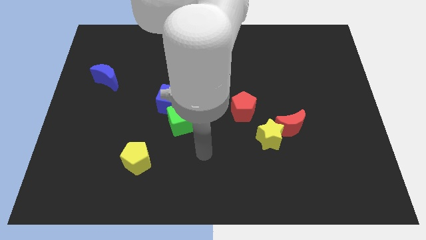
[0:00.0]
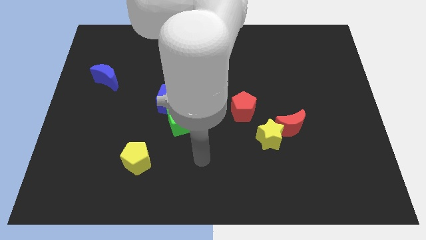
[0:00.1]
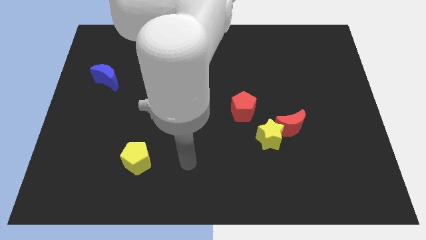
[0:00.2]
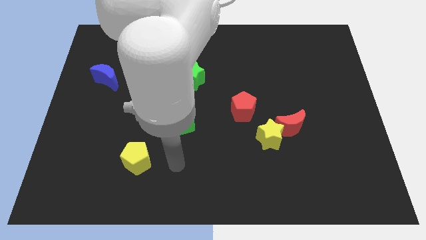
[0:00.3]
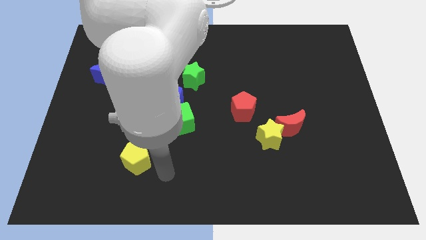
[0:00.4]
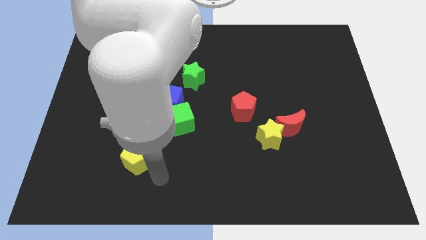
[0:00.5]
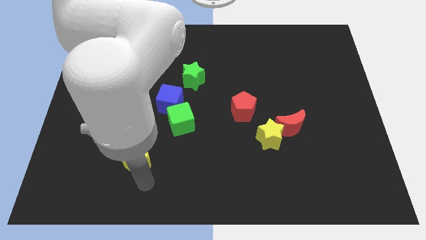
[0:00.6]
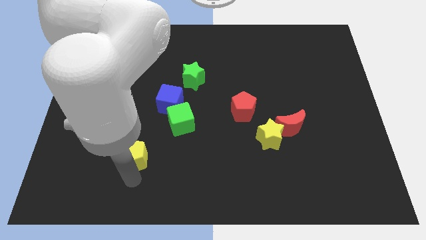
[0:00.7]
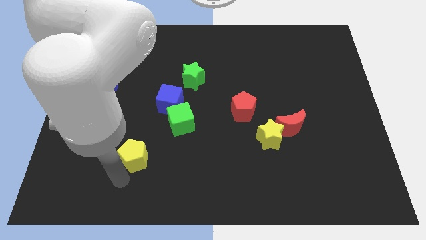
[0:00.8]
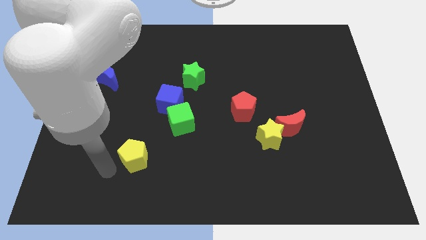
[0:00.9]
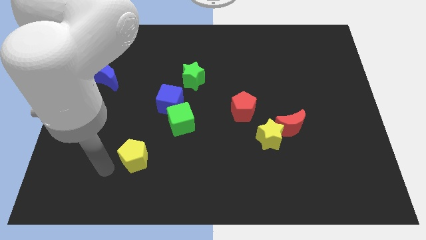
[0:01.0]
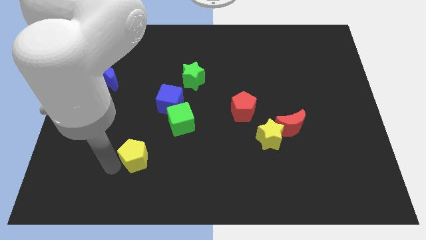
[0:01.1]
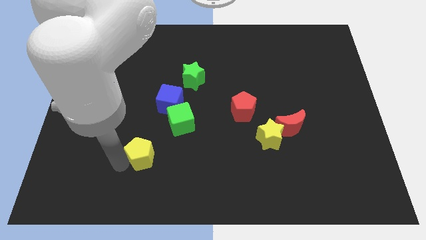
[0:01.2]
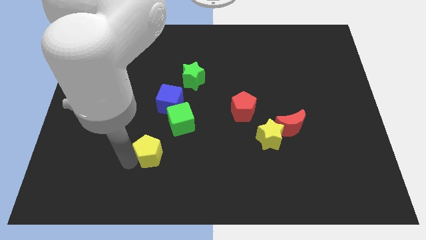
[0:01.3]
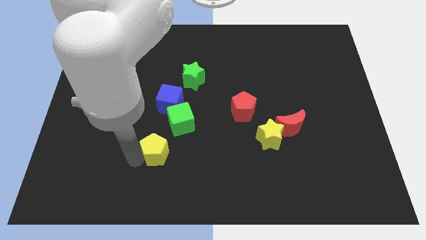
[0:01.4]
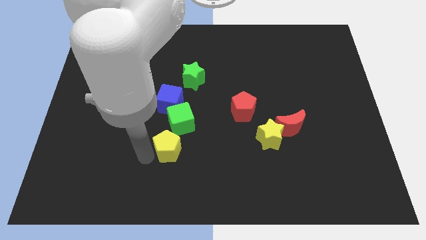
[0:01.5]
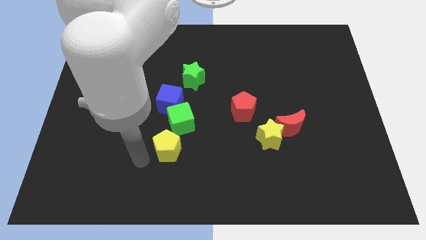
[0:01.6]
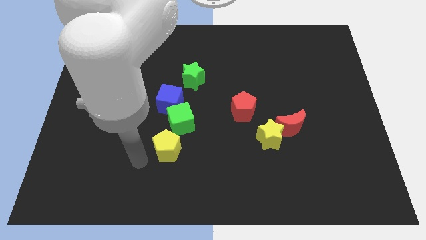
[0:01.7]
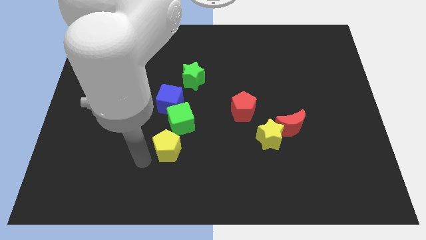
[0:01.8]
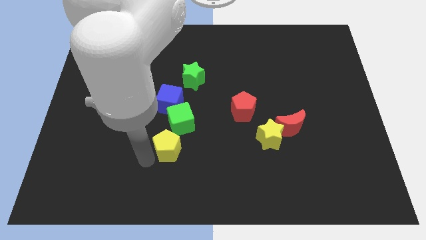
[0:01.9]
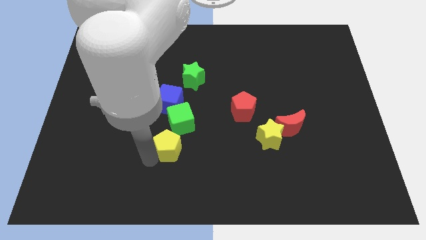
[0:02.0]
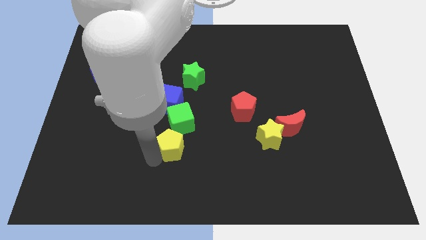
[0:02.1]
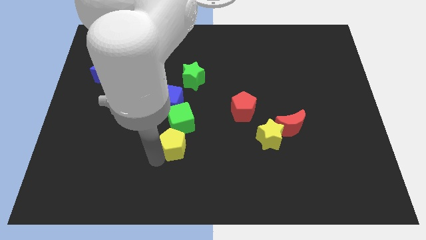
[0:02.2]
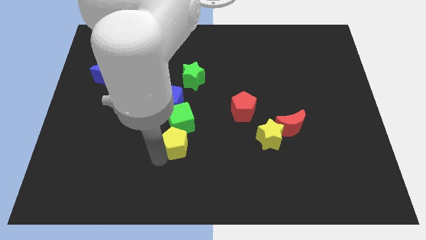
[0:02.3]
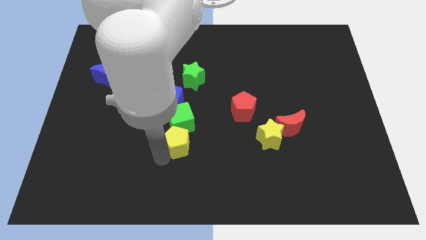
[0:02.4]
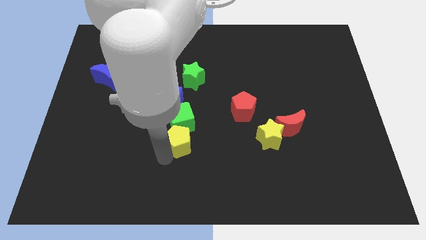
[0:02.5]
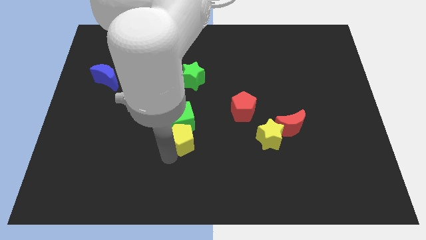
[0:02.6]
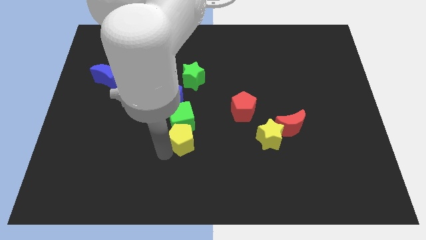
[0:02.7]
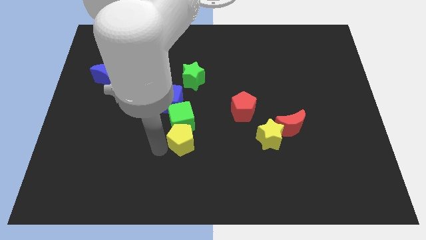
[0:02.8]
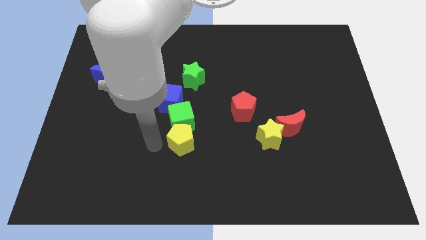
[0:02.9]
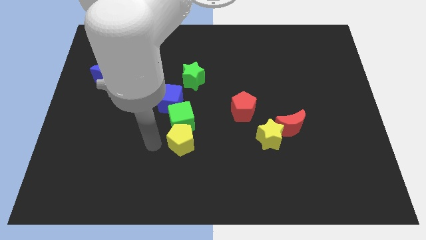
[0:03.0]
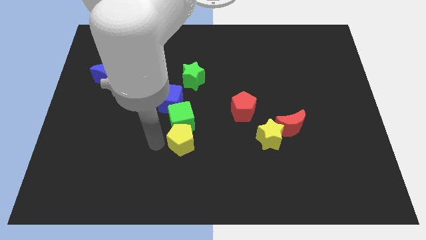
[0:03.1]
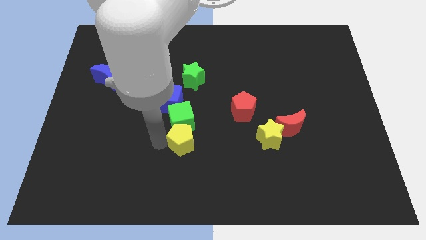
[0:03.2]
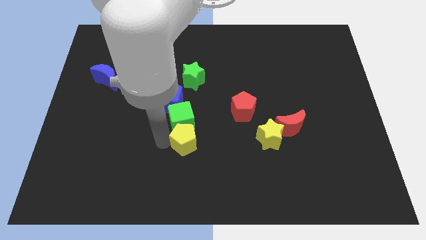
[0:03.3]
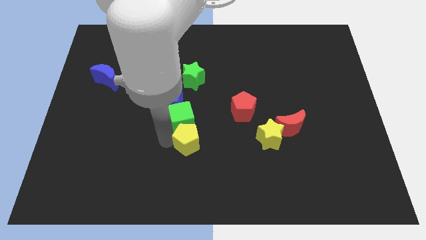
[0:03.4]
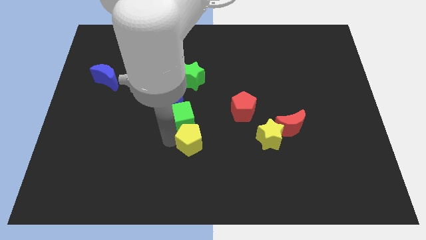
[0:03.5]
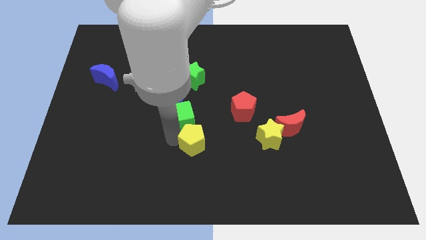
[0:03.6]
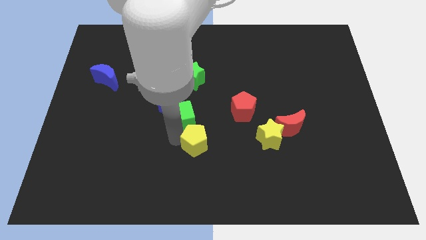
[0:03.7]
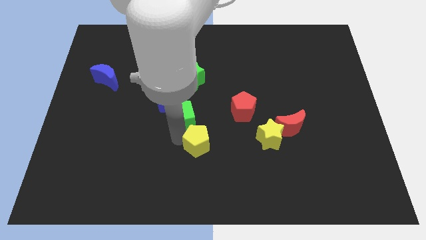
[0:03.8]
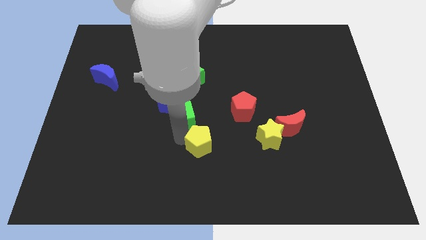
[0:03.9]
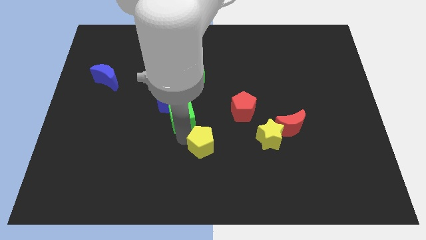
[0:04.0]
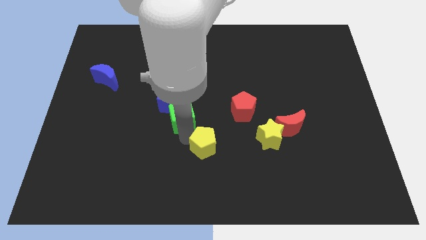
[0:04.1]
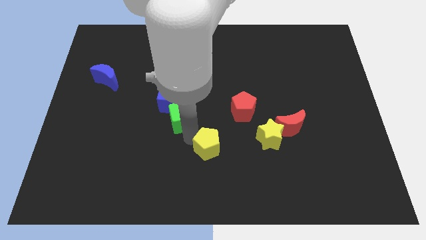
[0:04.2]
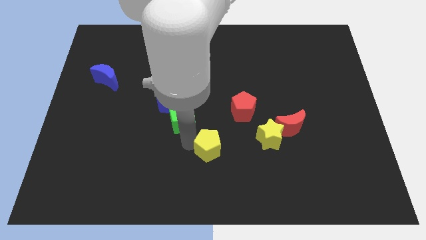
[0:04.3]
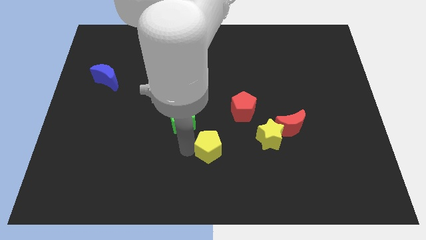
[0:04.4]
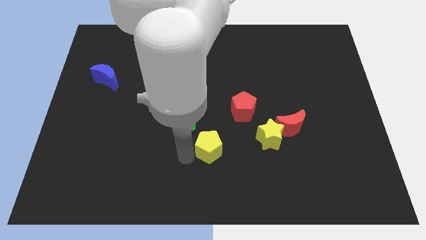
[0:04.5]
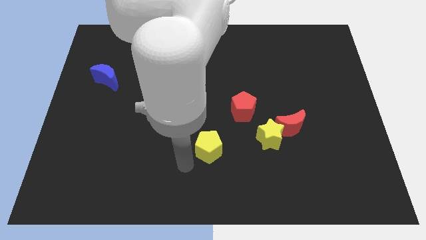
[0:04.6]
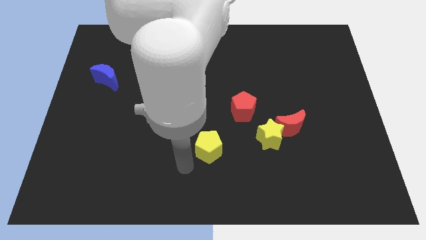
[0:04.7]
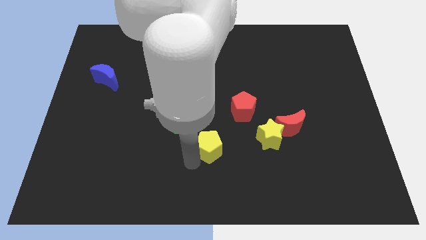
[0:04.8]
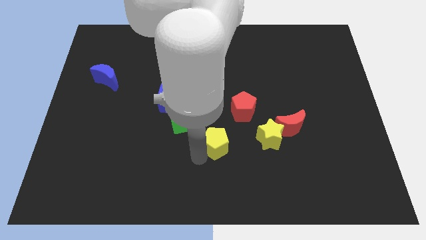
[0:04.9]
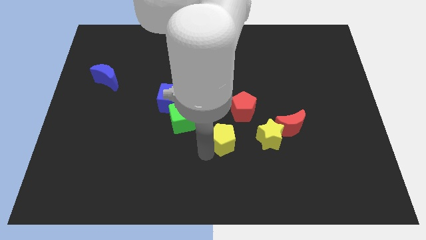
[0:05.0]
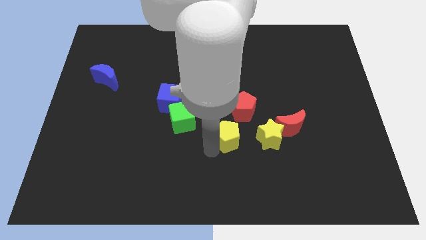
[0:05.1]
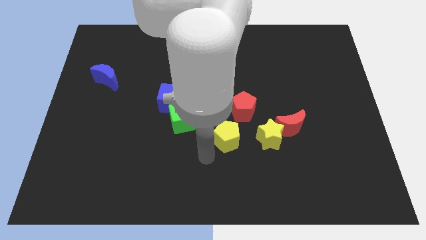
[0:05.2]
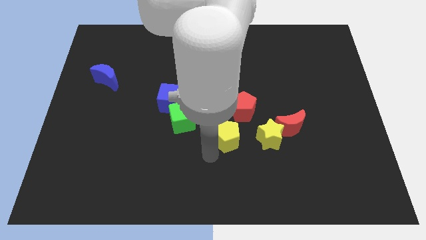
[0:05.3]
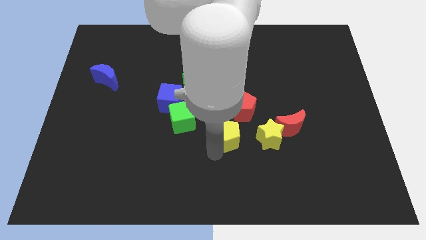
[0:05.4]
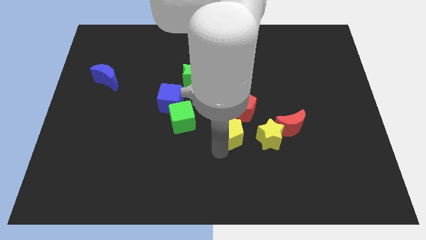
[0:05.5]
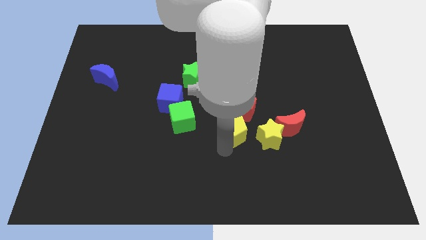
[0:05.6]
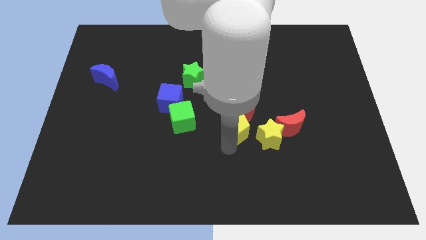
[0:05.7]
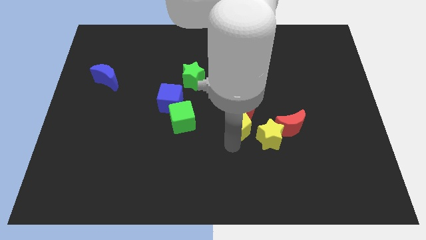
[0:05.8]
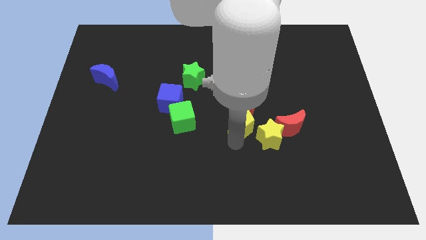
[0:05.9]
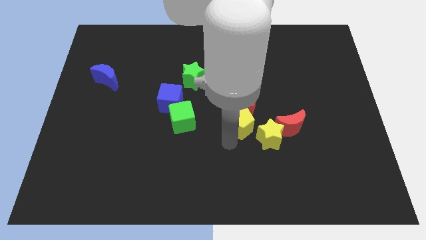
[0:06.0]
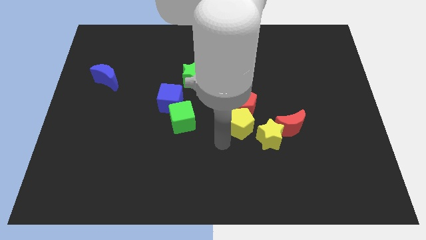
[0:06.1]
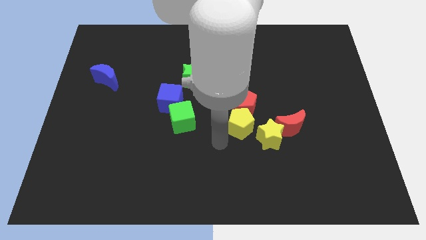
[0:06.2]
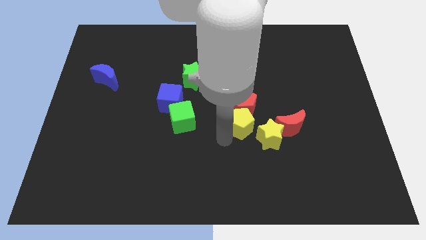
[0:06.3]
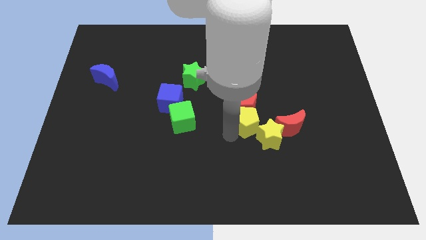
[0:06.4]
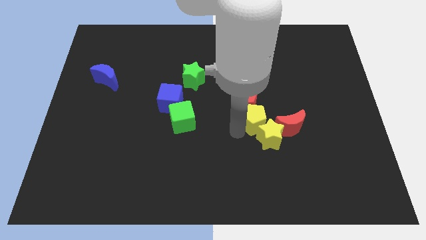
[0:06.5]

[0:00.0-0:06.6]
slide the yellow pentagon to the top left of the red moon

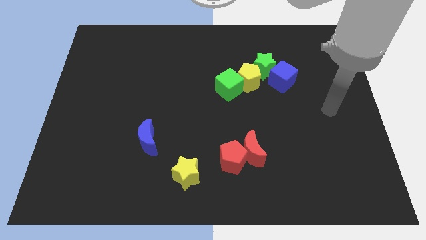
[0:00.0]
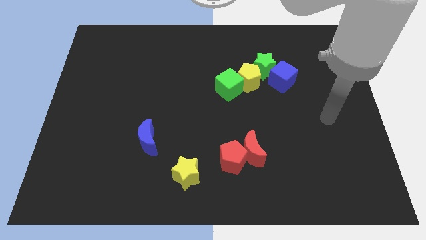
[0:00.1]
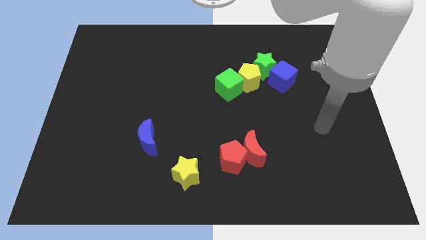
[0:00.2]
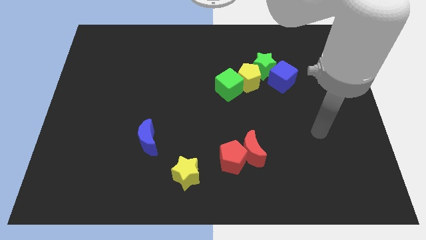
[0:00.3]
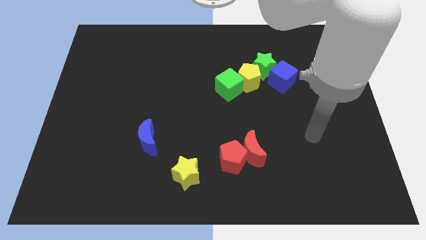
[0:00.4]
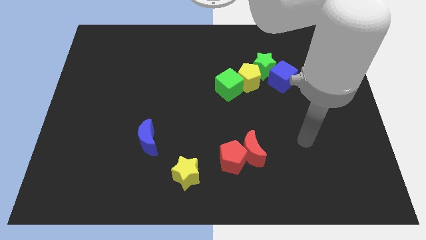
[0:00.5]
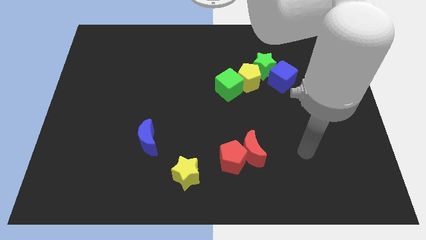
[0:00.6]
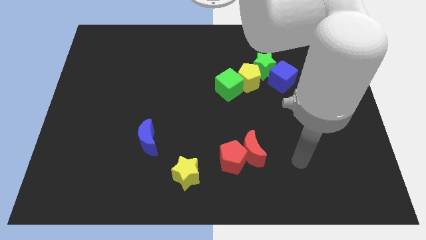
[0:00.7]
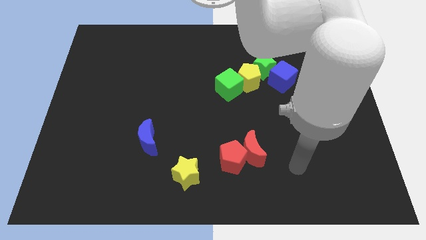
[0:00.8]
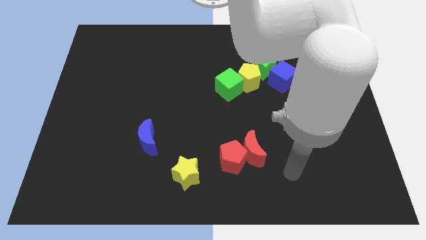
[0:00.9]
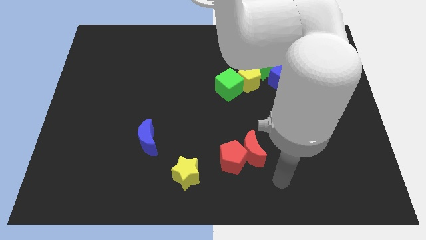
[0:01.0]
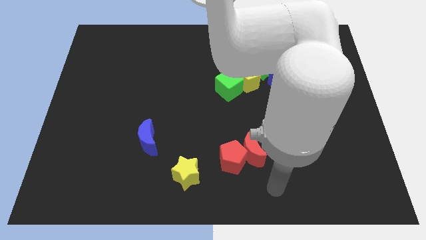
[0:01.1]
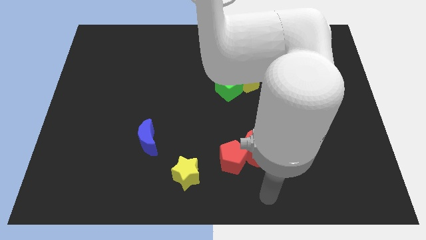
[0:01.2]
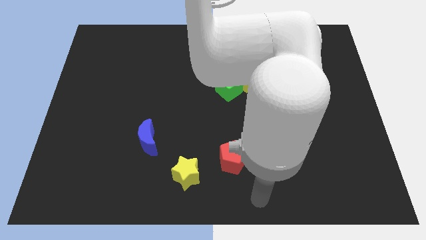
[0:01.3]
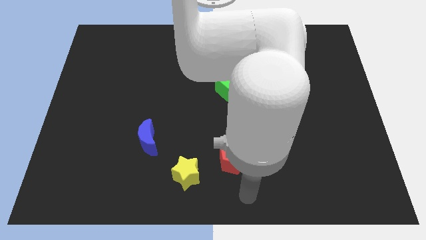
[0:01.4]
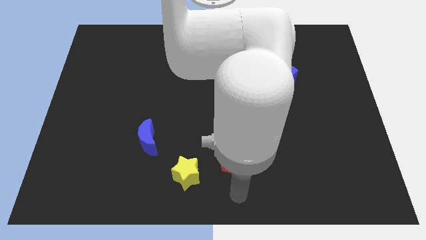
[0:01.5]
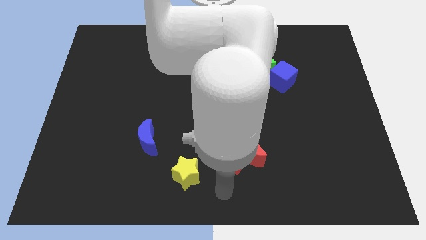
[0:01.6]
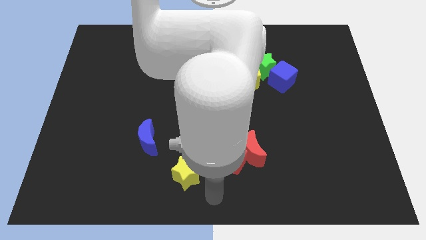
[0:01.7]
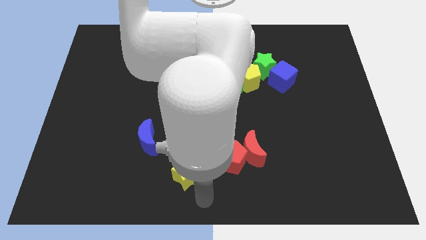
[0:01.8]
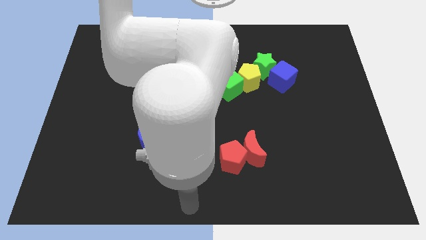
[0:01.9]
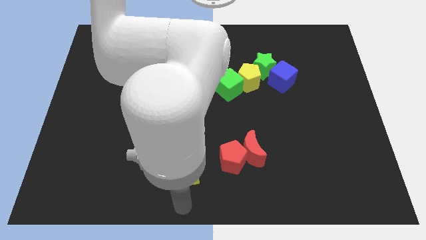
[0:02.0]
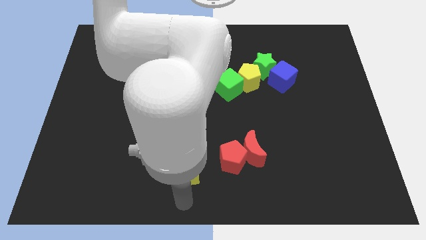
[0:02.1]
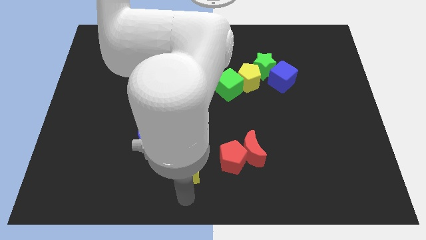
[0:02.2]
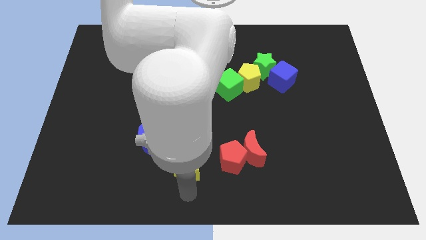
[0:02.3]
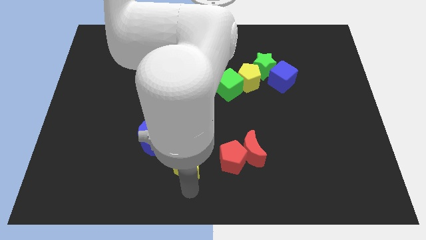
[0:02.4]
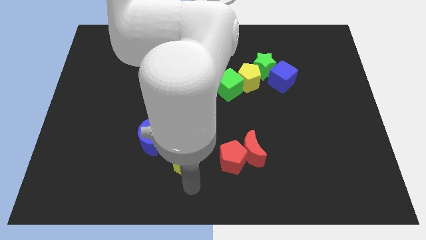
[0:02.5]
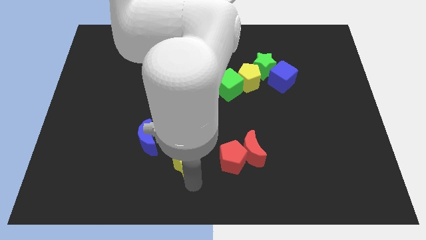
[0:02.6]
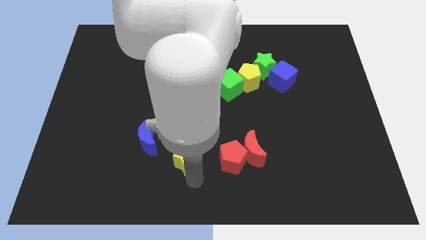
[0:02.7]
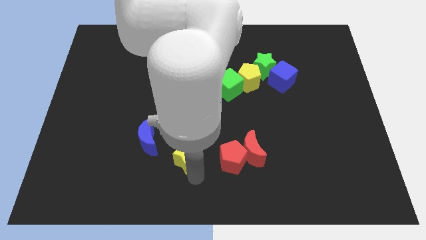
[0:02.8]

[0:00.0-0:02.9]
slide the yellow star to the right of the blue moon
